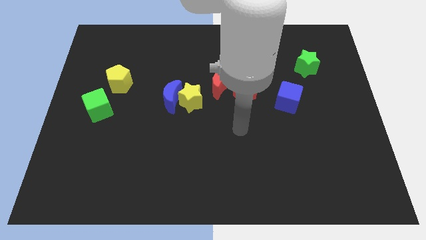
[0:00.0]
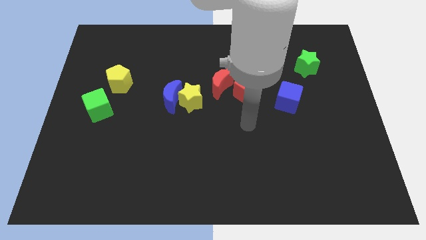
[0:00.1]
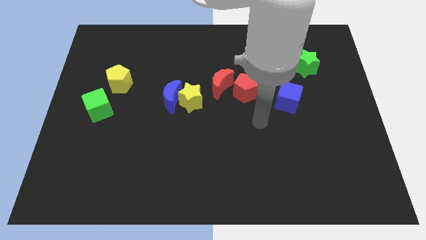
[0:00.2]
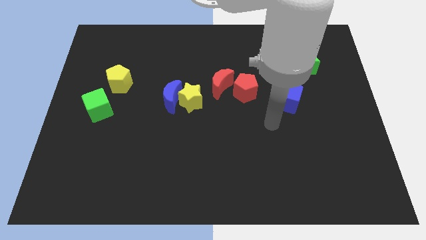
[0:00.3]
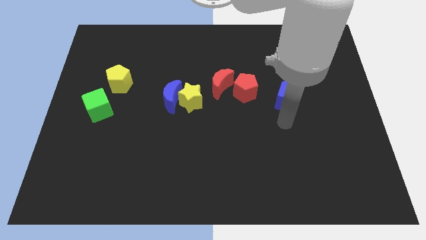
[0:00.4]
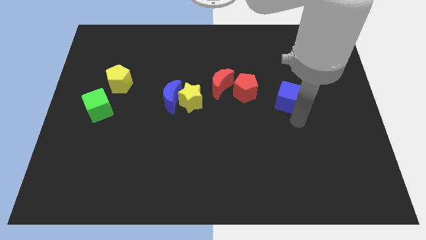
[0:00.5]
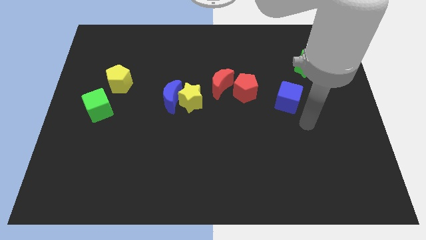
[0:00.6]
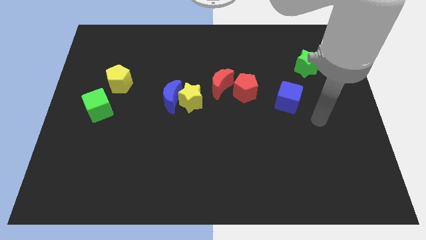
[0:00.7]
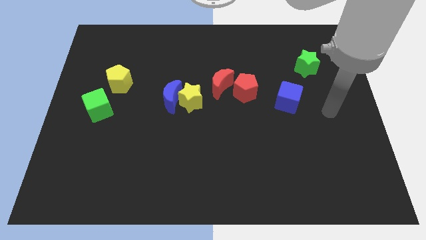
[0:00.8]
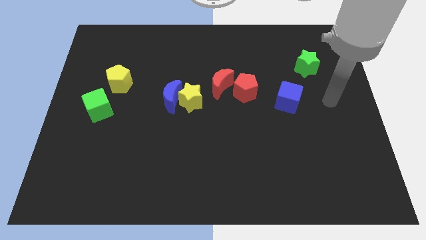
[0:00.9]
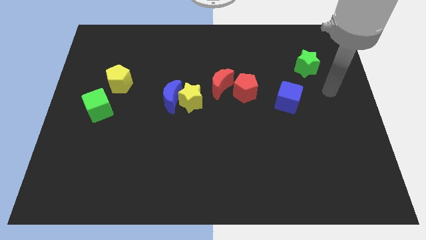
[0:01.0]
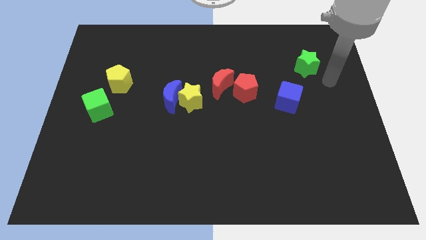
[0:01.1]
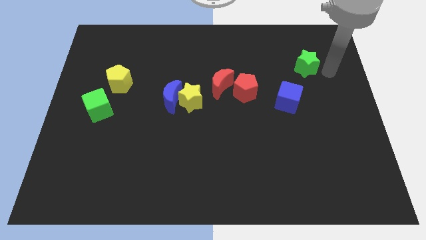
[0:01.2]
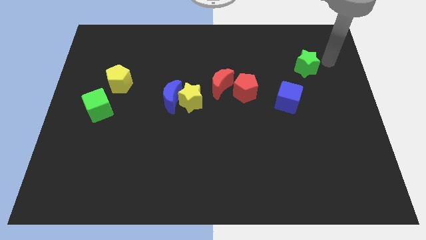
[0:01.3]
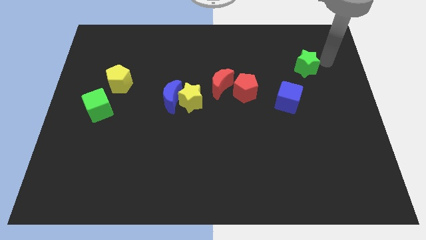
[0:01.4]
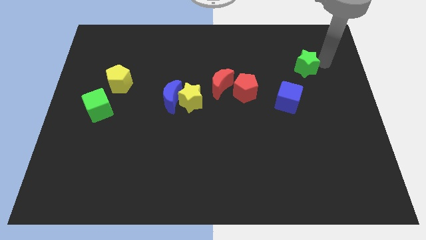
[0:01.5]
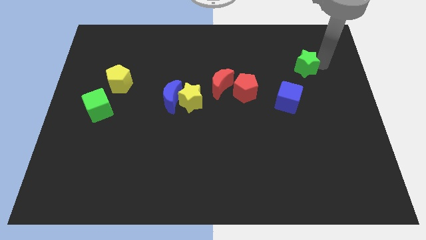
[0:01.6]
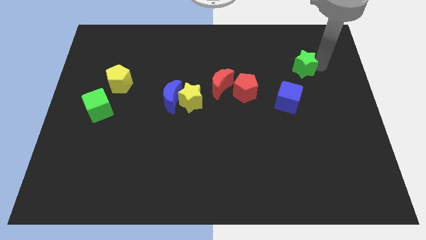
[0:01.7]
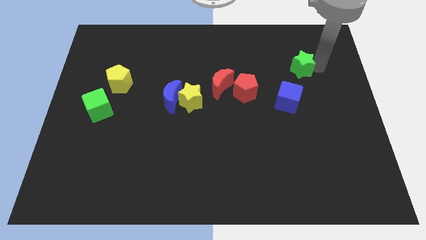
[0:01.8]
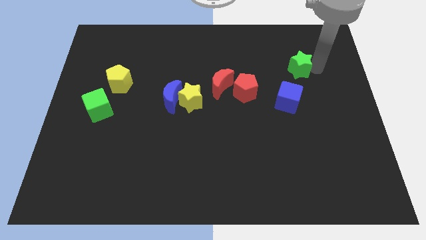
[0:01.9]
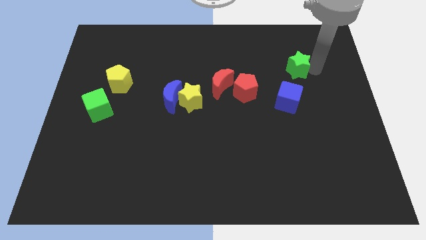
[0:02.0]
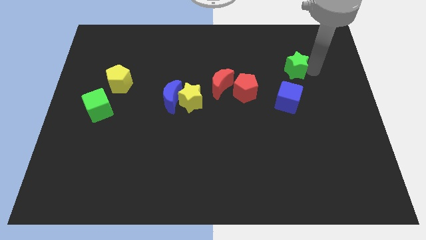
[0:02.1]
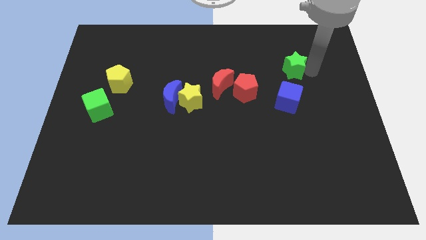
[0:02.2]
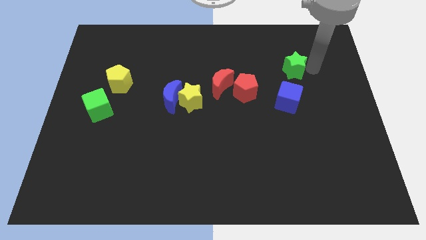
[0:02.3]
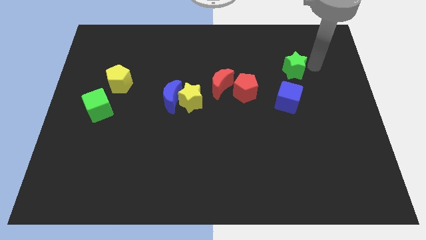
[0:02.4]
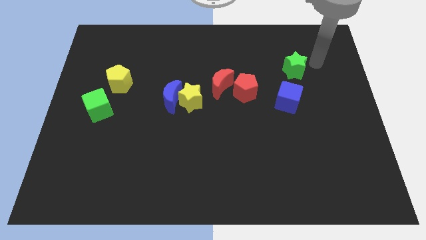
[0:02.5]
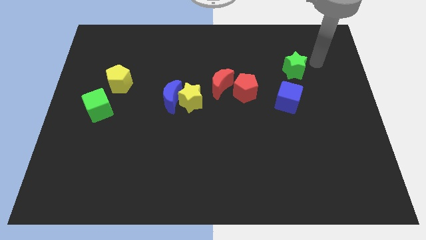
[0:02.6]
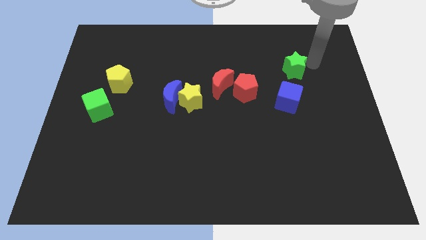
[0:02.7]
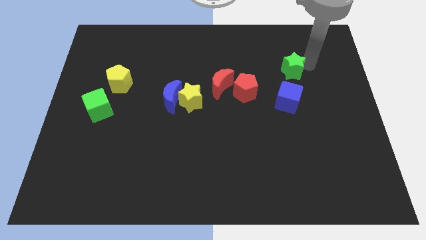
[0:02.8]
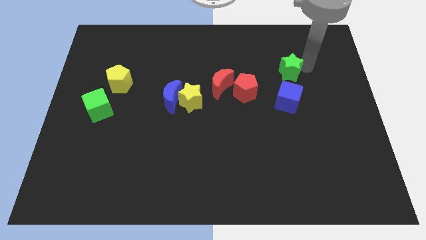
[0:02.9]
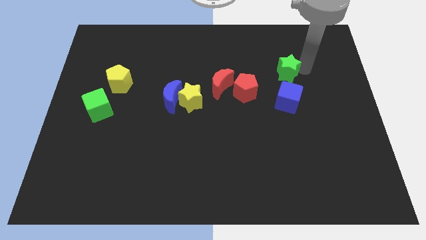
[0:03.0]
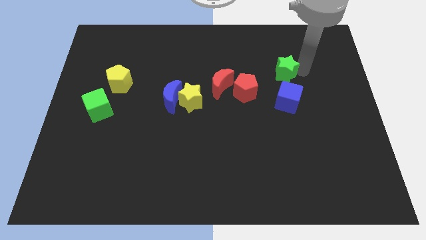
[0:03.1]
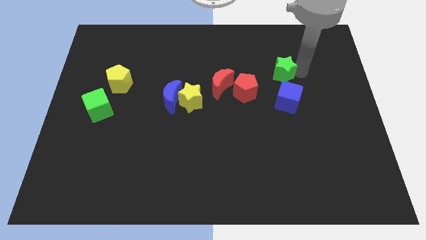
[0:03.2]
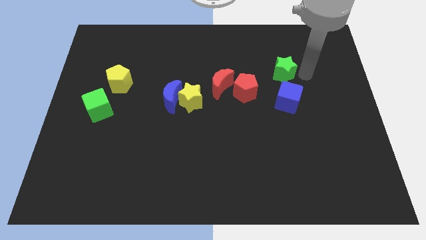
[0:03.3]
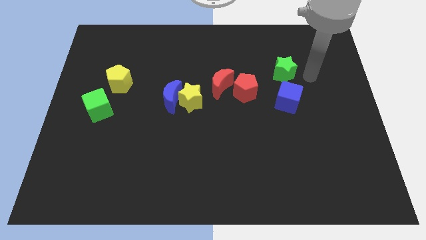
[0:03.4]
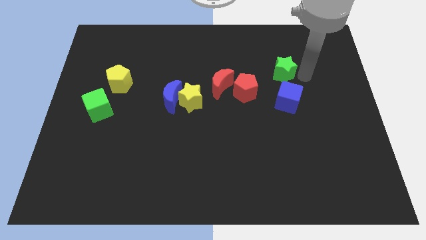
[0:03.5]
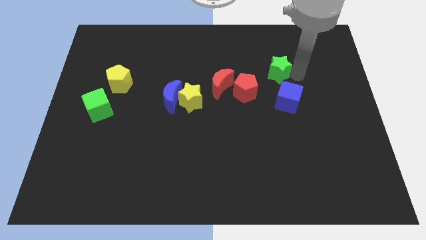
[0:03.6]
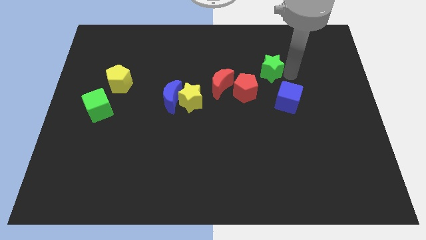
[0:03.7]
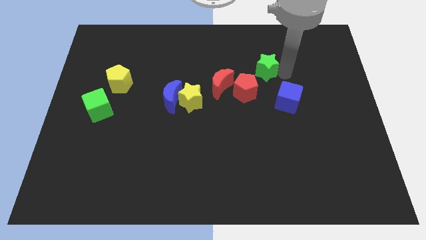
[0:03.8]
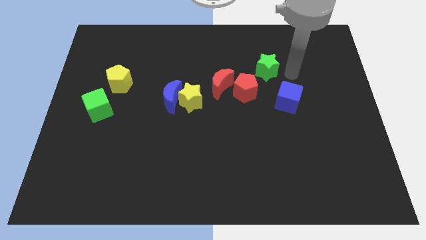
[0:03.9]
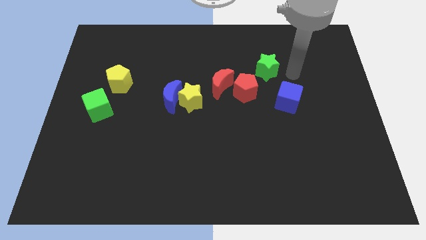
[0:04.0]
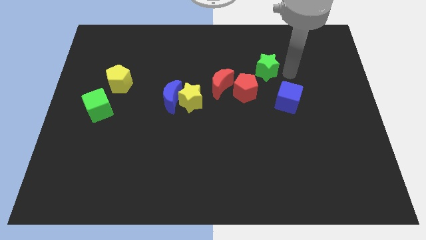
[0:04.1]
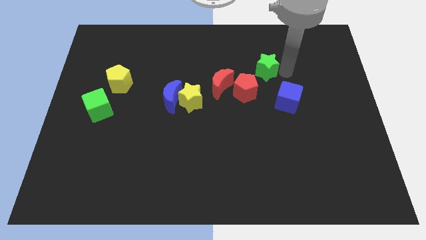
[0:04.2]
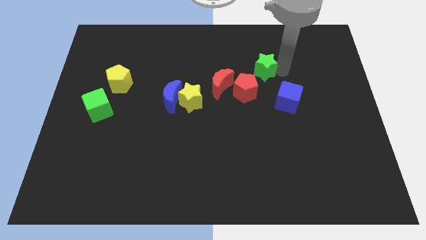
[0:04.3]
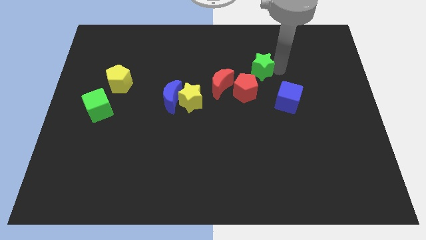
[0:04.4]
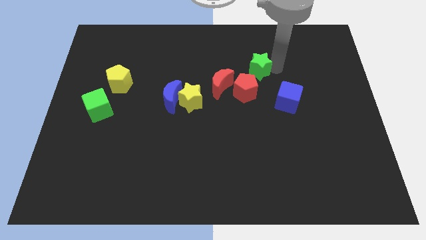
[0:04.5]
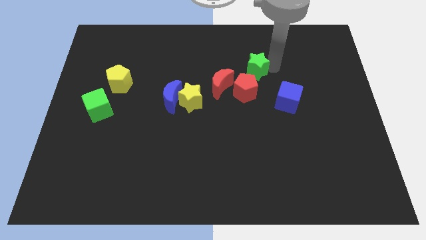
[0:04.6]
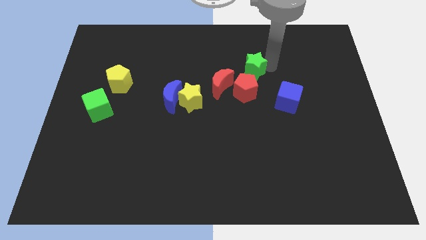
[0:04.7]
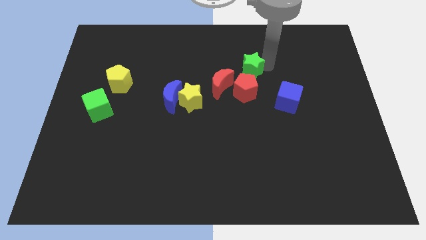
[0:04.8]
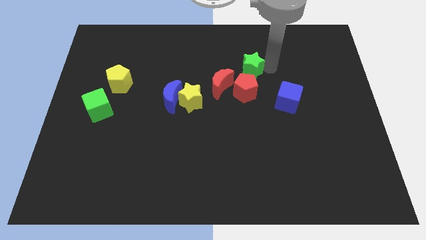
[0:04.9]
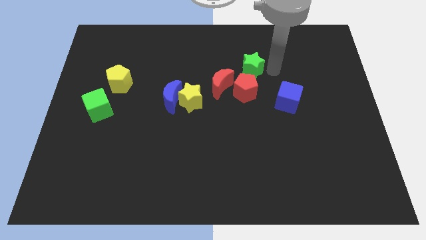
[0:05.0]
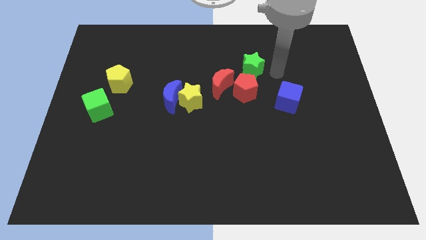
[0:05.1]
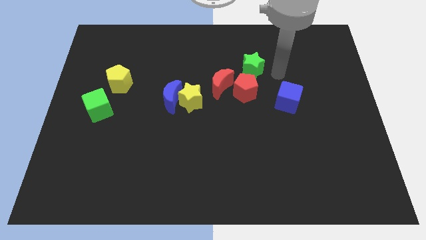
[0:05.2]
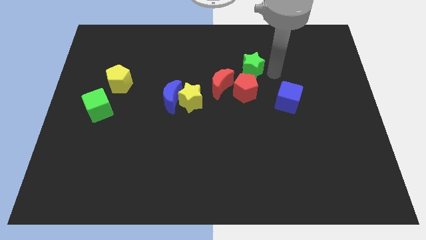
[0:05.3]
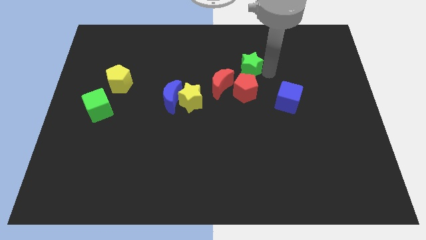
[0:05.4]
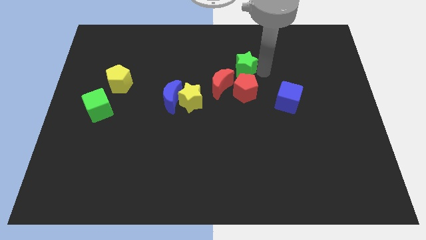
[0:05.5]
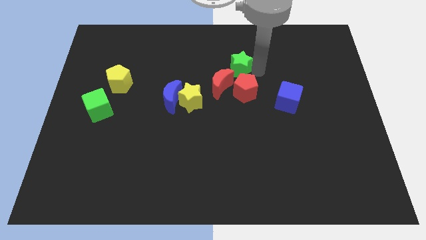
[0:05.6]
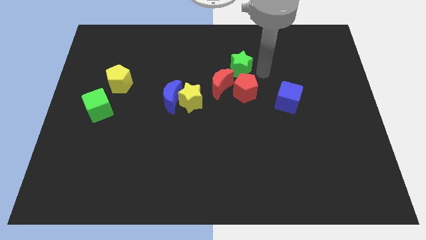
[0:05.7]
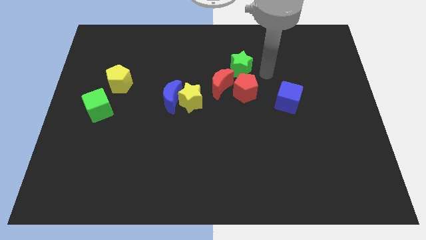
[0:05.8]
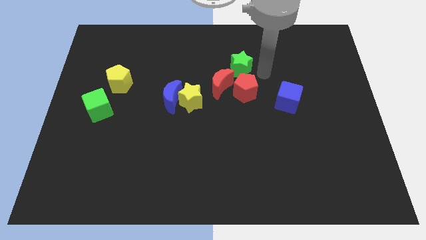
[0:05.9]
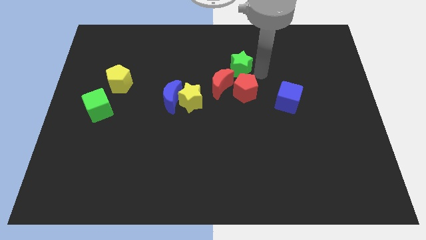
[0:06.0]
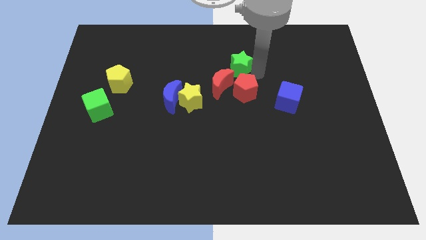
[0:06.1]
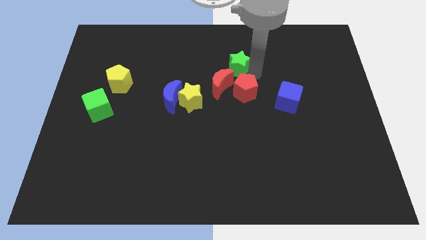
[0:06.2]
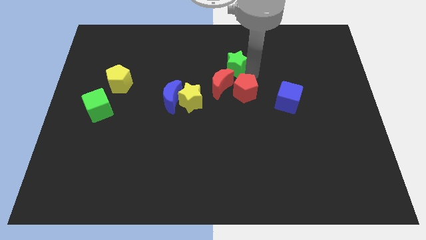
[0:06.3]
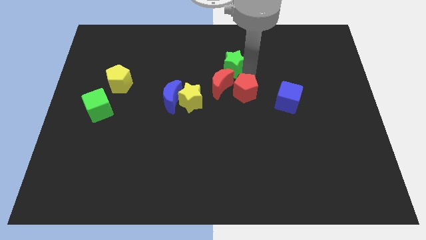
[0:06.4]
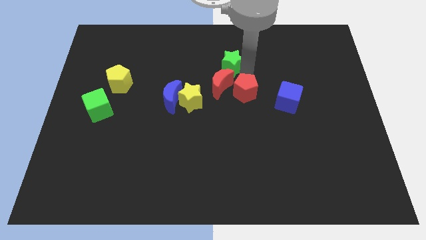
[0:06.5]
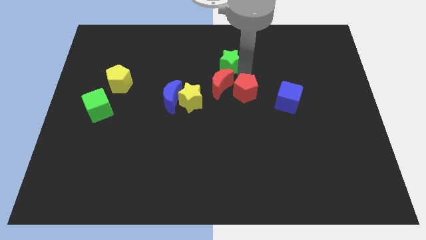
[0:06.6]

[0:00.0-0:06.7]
slide the green star to the left

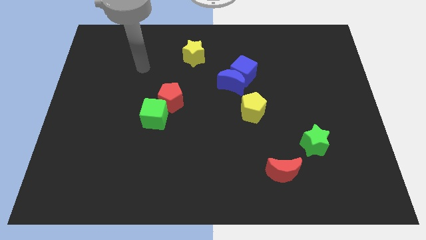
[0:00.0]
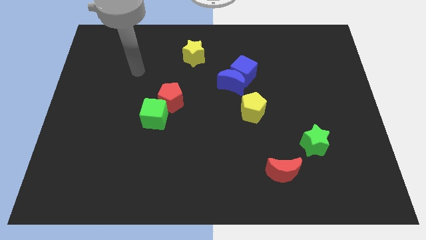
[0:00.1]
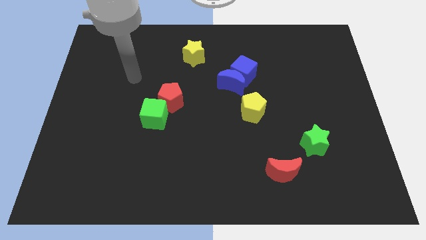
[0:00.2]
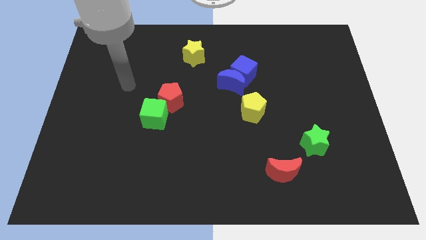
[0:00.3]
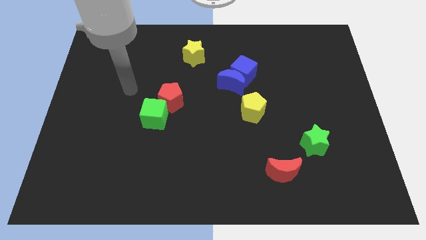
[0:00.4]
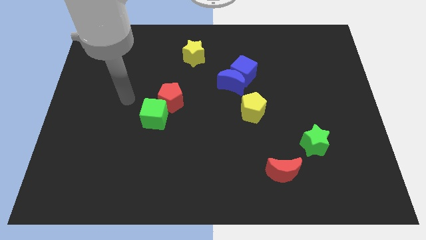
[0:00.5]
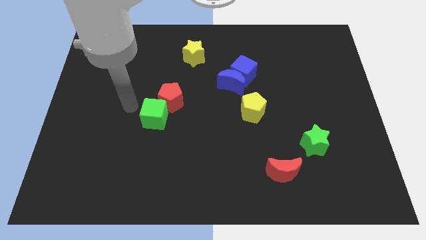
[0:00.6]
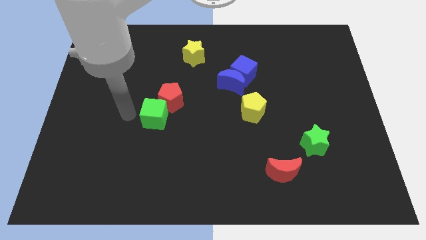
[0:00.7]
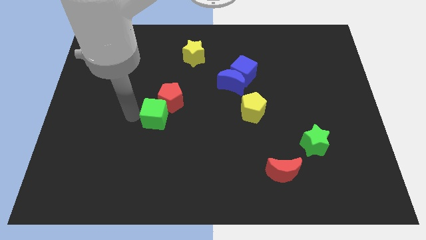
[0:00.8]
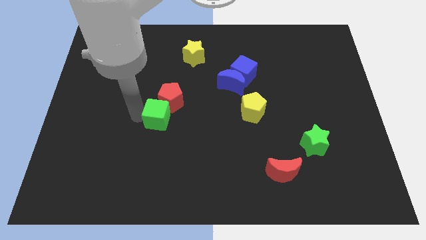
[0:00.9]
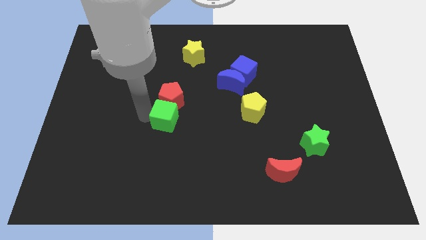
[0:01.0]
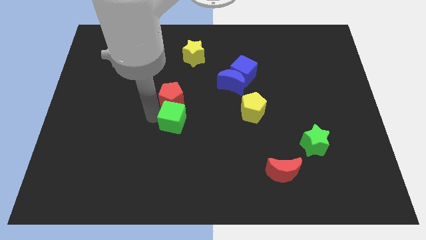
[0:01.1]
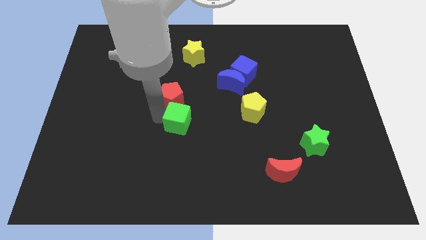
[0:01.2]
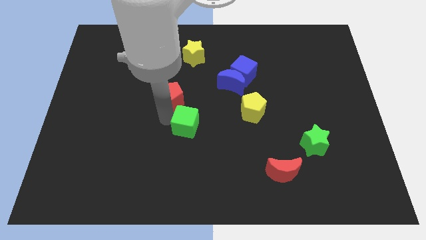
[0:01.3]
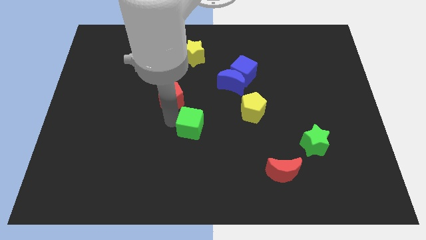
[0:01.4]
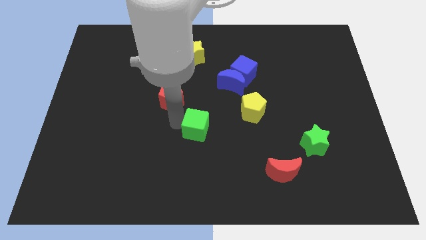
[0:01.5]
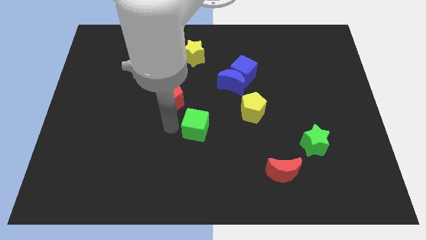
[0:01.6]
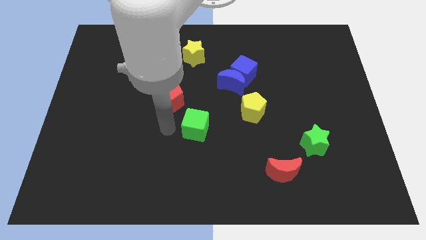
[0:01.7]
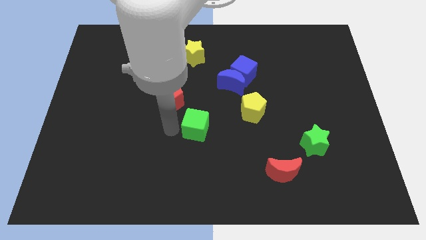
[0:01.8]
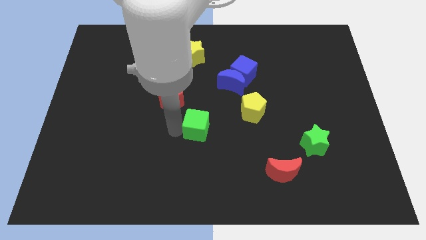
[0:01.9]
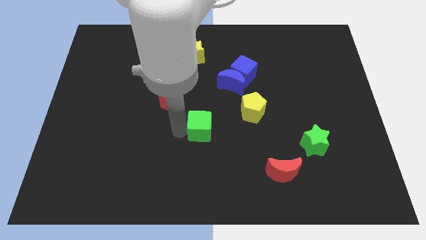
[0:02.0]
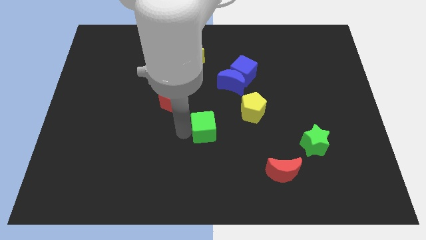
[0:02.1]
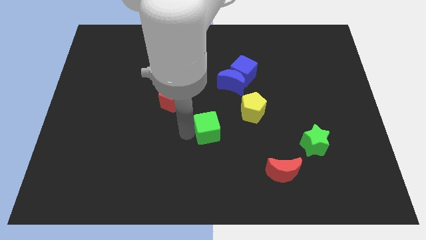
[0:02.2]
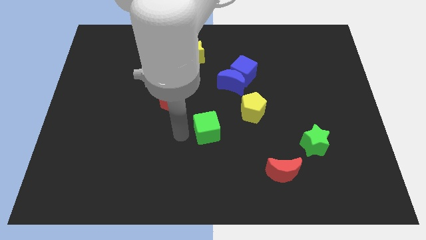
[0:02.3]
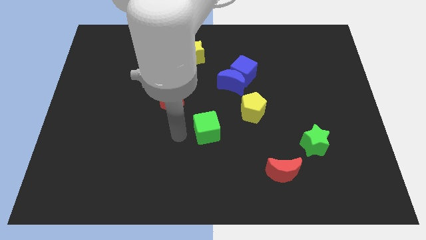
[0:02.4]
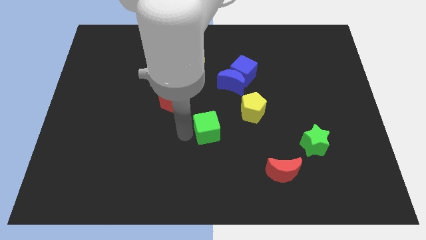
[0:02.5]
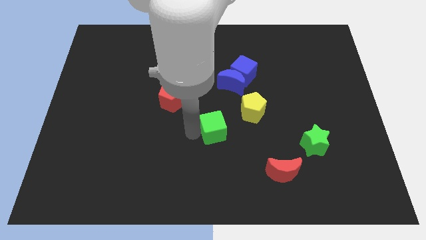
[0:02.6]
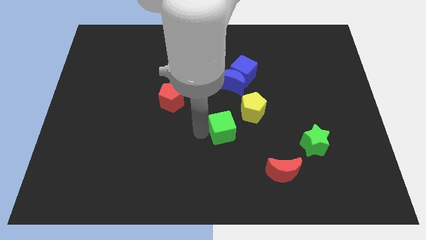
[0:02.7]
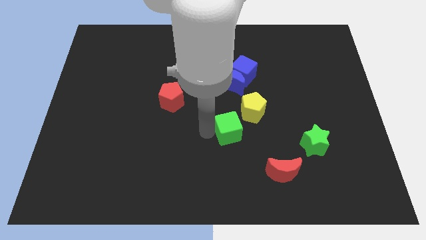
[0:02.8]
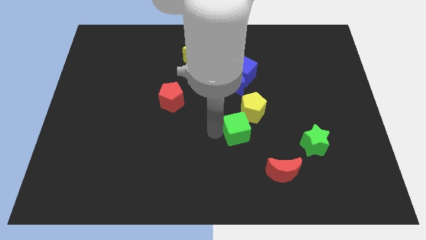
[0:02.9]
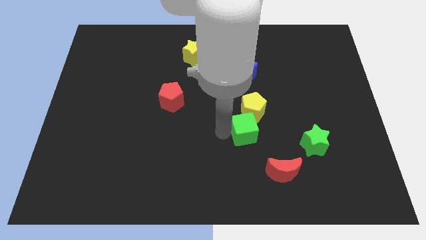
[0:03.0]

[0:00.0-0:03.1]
push the green cube right
